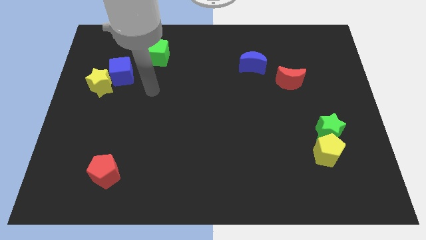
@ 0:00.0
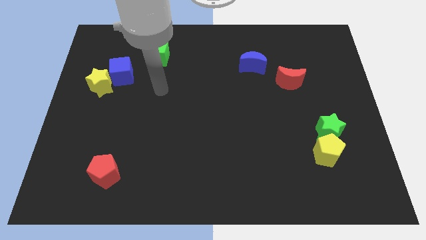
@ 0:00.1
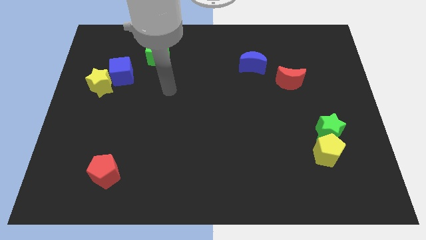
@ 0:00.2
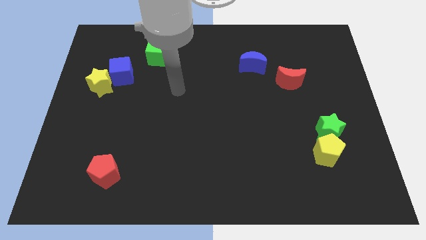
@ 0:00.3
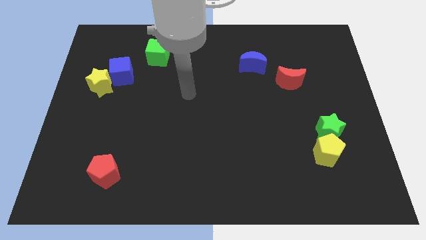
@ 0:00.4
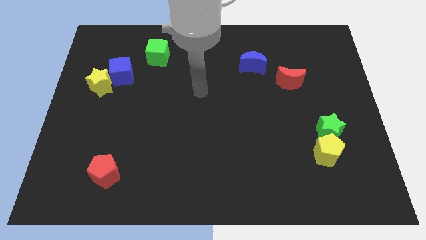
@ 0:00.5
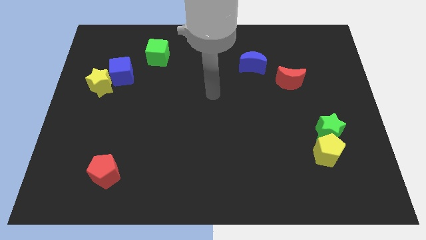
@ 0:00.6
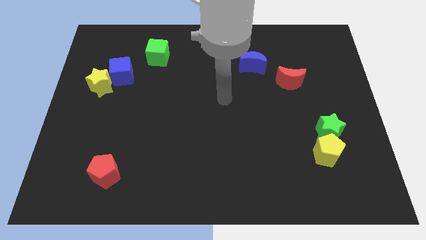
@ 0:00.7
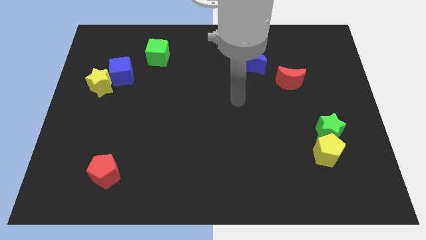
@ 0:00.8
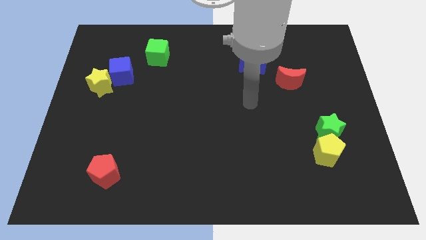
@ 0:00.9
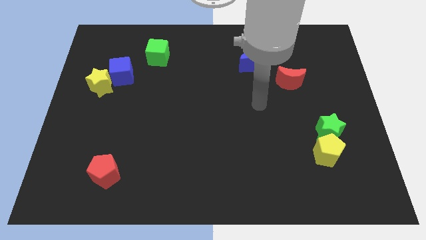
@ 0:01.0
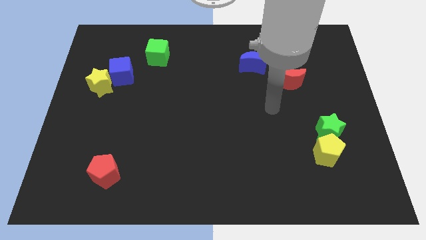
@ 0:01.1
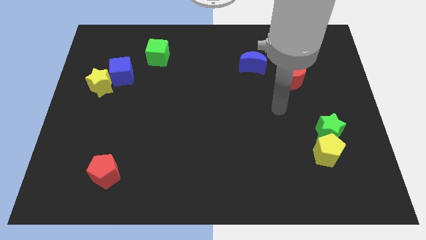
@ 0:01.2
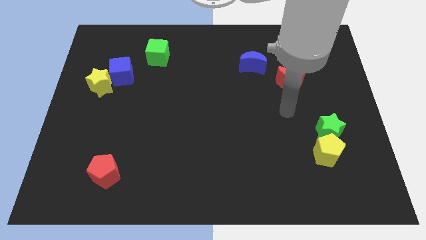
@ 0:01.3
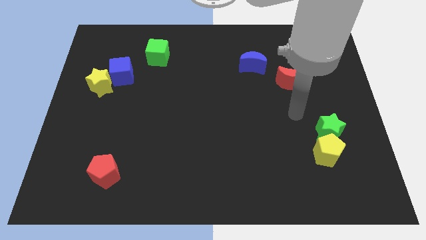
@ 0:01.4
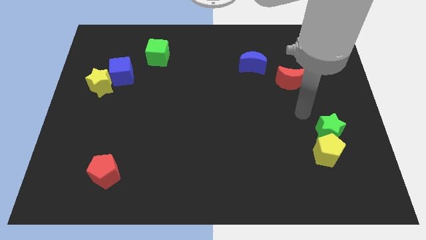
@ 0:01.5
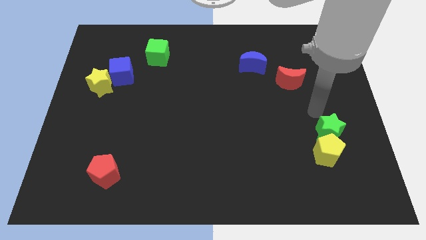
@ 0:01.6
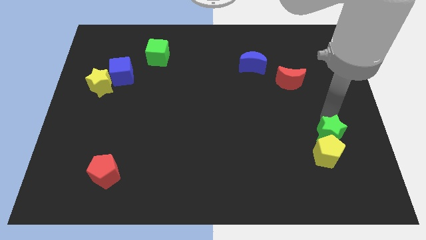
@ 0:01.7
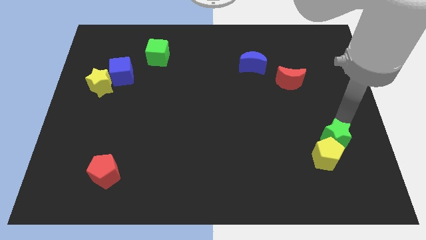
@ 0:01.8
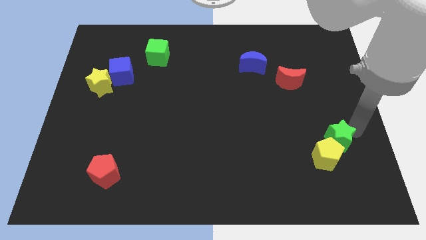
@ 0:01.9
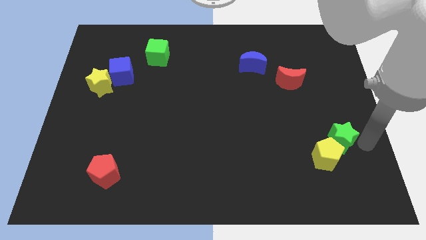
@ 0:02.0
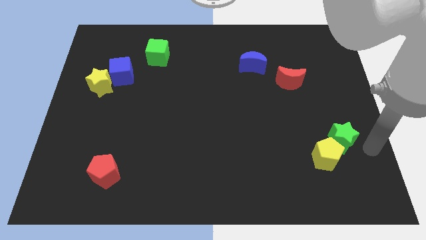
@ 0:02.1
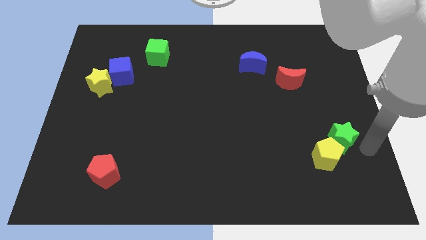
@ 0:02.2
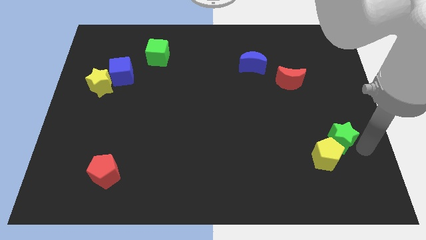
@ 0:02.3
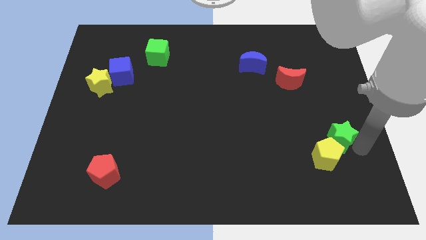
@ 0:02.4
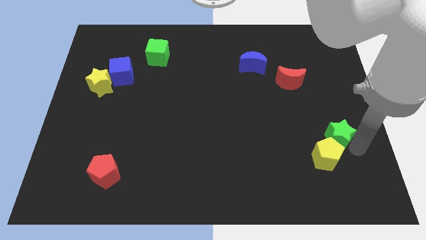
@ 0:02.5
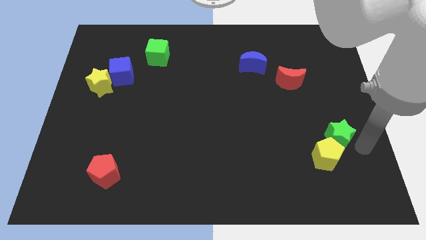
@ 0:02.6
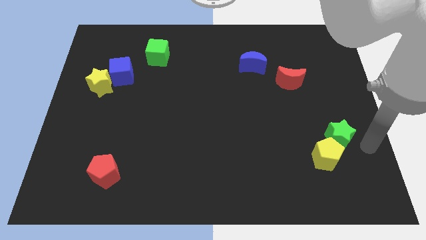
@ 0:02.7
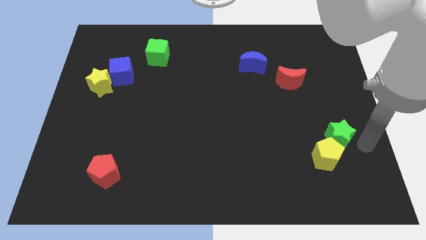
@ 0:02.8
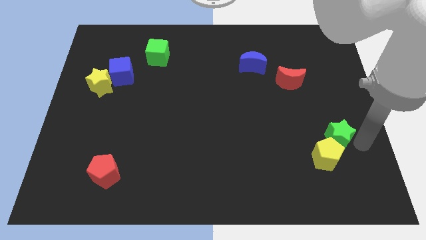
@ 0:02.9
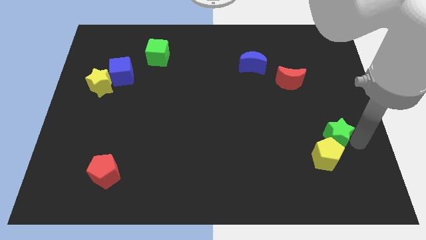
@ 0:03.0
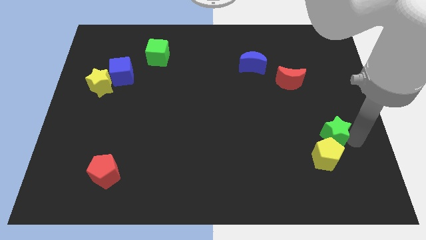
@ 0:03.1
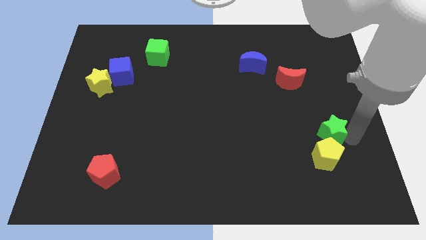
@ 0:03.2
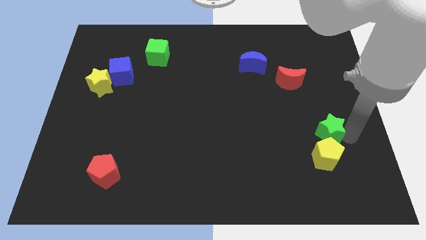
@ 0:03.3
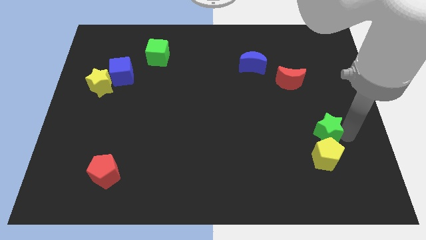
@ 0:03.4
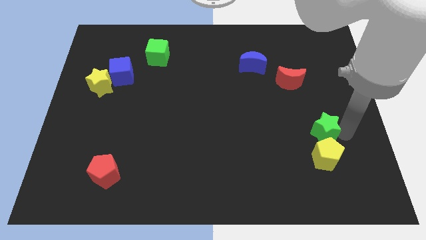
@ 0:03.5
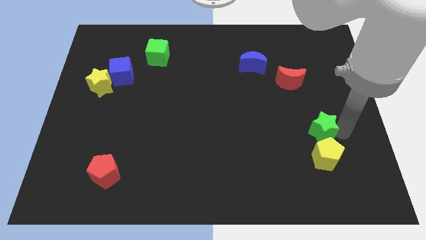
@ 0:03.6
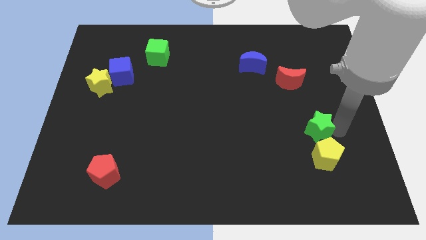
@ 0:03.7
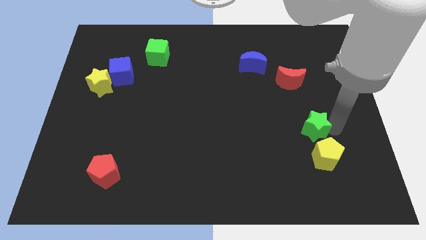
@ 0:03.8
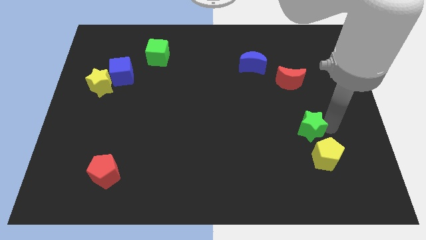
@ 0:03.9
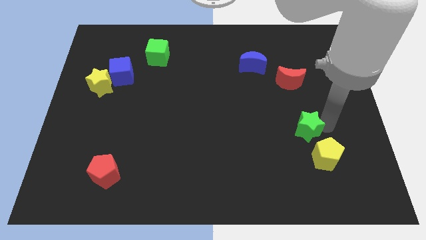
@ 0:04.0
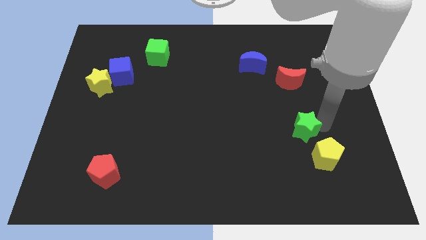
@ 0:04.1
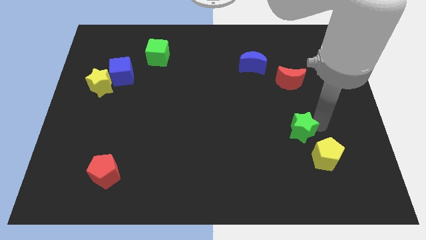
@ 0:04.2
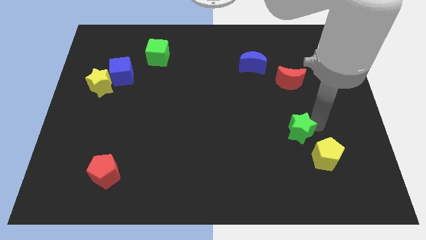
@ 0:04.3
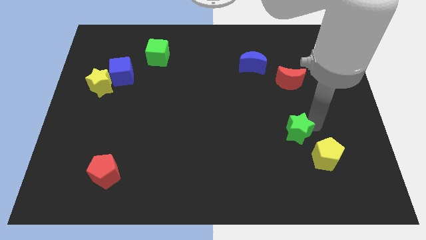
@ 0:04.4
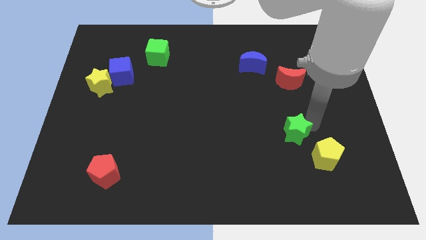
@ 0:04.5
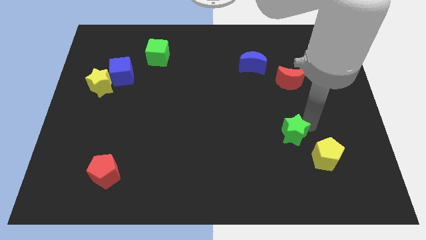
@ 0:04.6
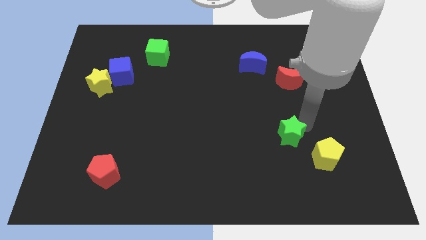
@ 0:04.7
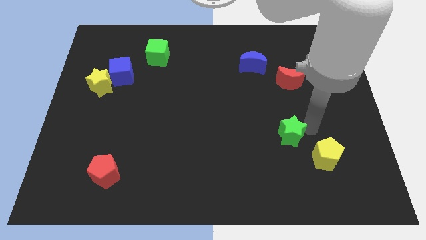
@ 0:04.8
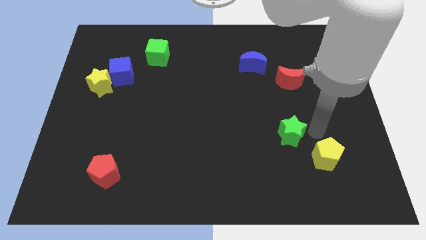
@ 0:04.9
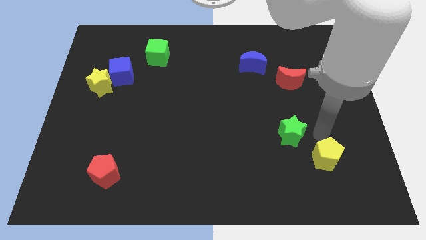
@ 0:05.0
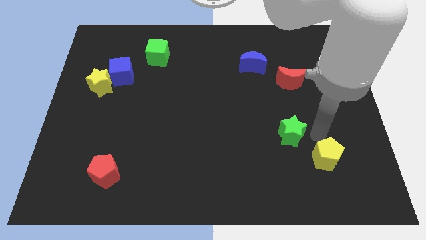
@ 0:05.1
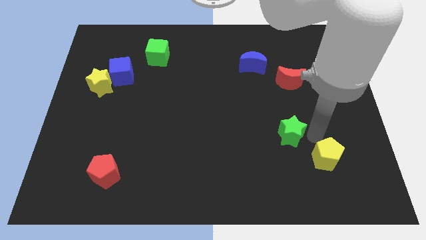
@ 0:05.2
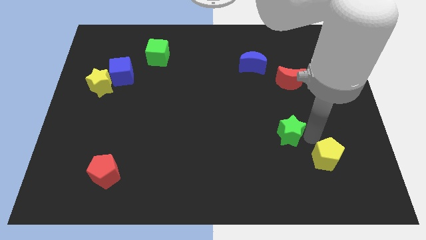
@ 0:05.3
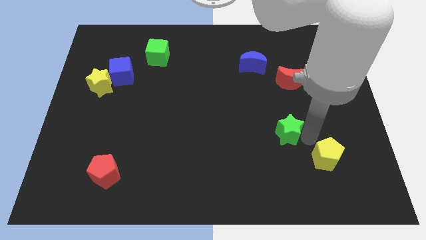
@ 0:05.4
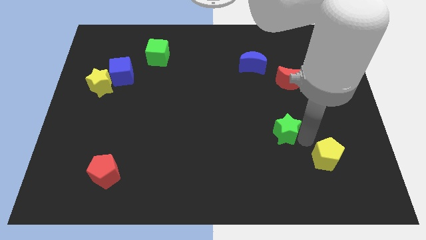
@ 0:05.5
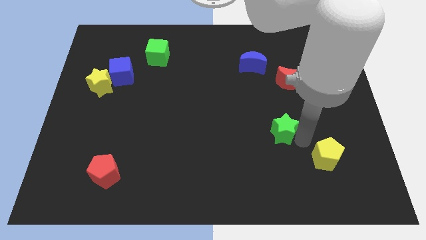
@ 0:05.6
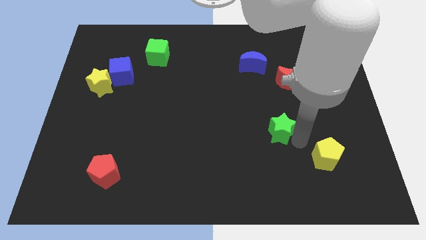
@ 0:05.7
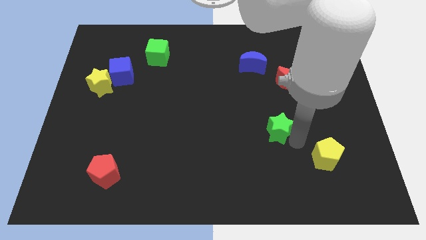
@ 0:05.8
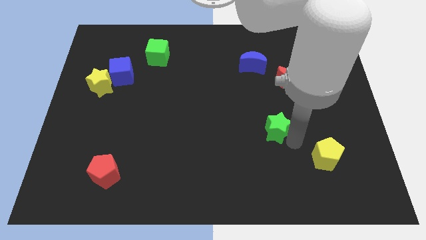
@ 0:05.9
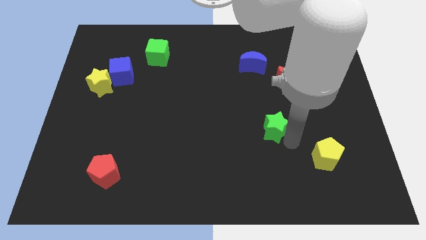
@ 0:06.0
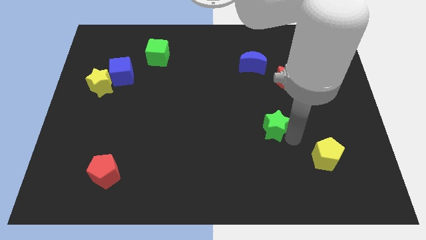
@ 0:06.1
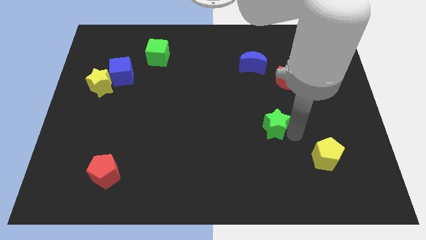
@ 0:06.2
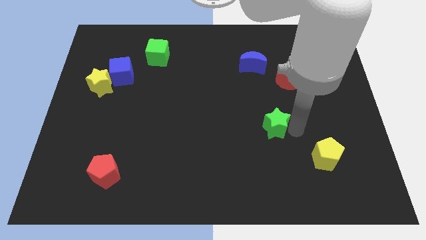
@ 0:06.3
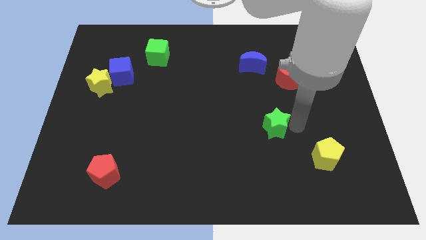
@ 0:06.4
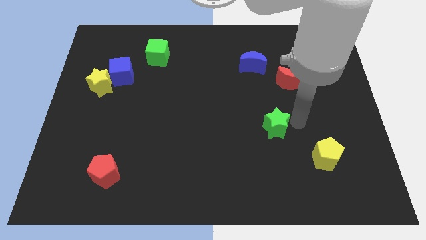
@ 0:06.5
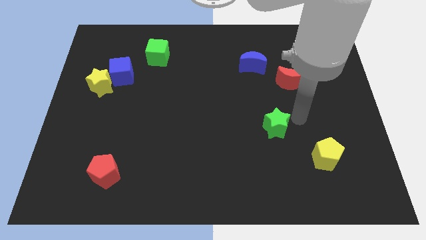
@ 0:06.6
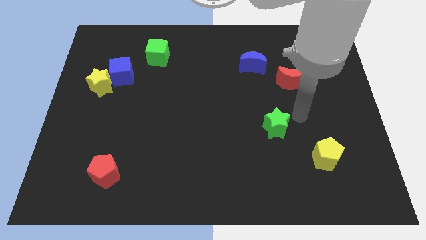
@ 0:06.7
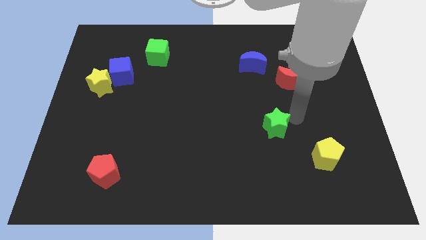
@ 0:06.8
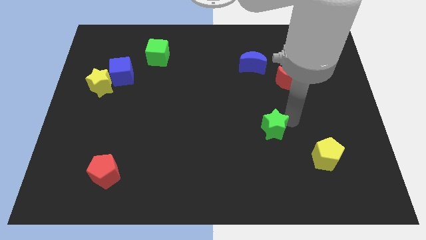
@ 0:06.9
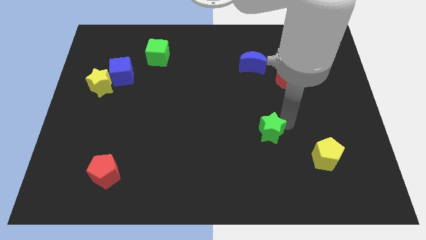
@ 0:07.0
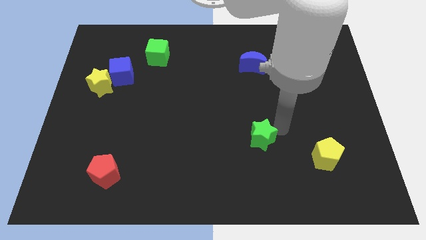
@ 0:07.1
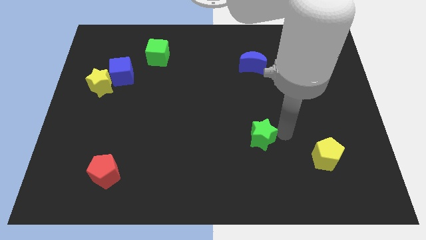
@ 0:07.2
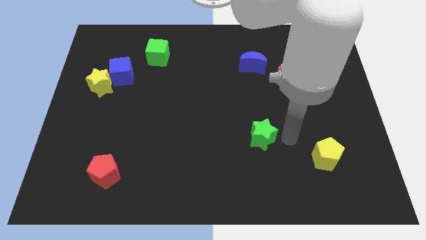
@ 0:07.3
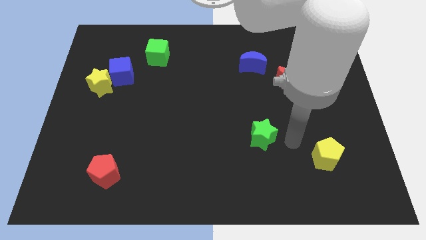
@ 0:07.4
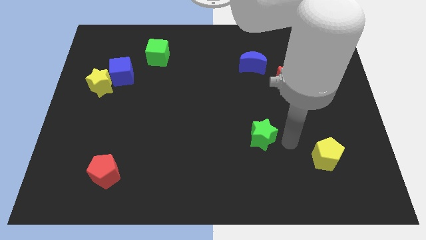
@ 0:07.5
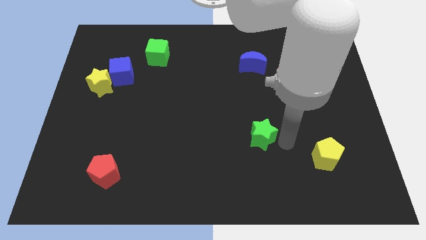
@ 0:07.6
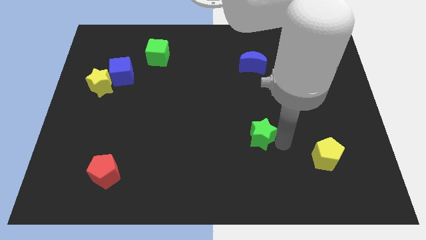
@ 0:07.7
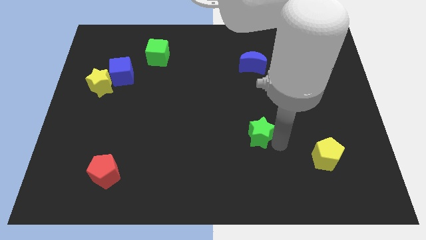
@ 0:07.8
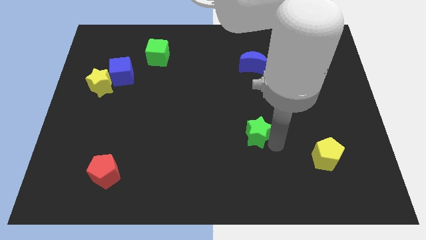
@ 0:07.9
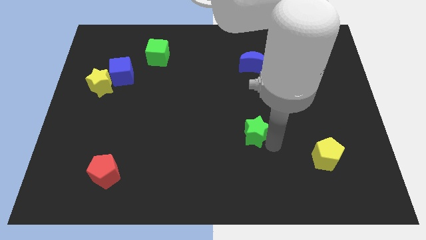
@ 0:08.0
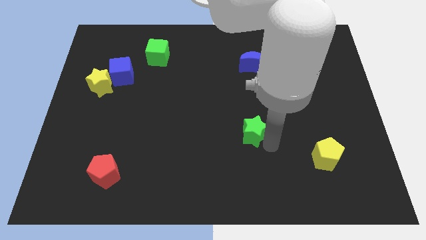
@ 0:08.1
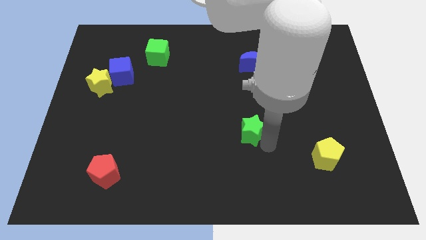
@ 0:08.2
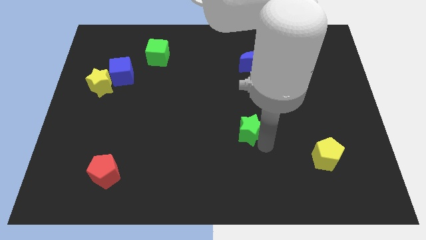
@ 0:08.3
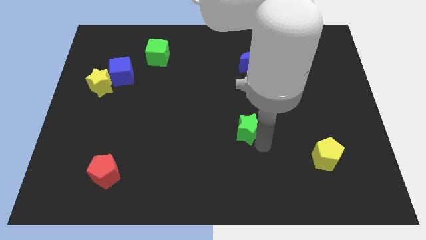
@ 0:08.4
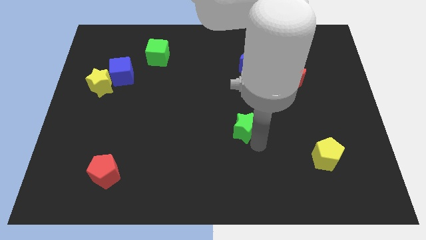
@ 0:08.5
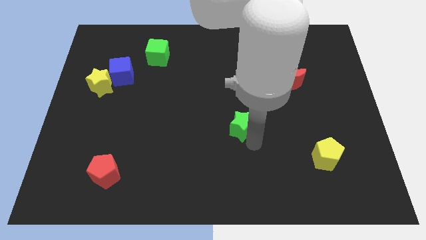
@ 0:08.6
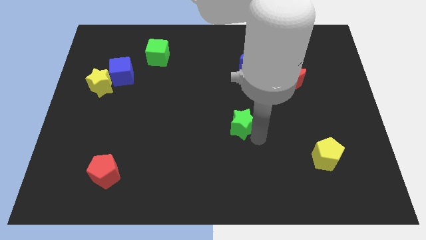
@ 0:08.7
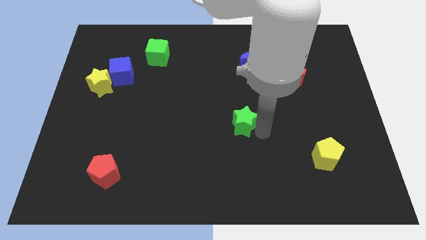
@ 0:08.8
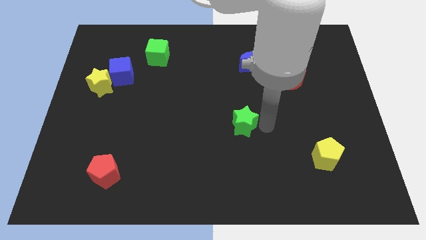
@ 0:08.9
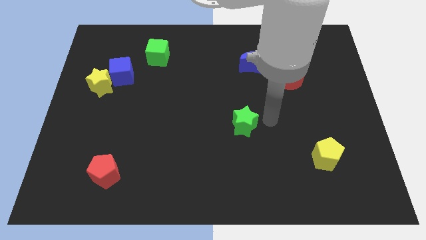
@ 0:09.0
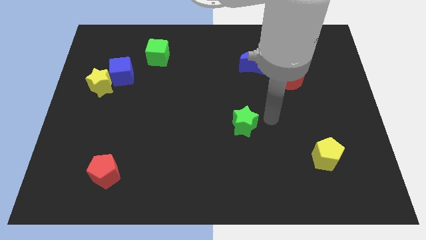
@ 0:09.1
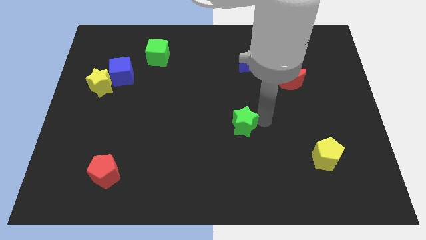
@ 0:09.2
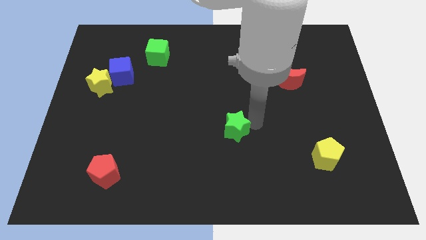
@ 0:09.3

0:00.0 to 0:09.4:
push the green star to the left
